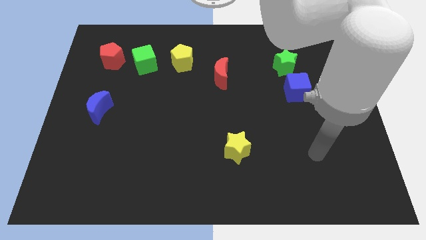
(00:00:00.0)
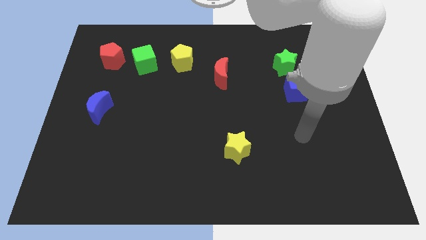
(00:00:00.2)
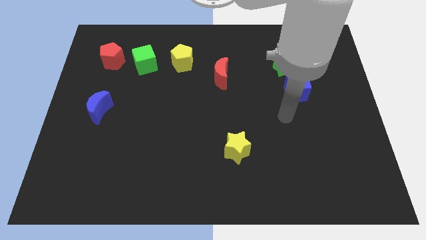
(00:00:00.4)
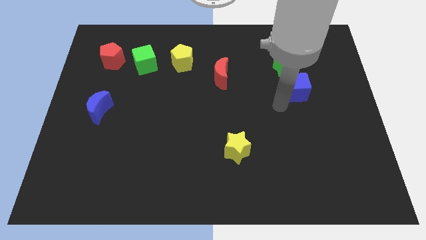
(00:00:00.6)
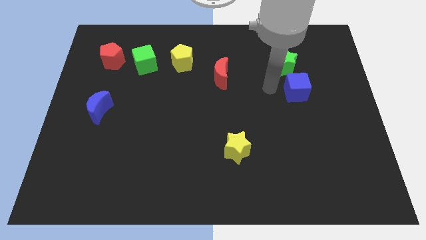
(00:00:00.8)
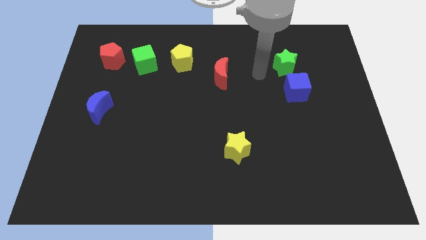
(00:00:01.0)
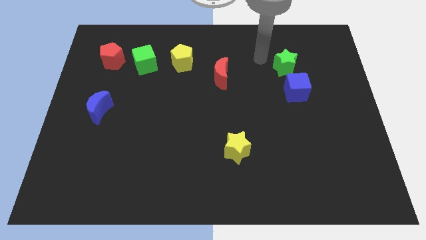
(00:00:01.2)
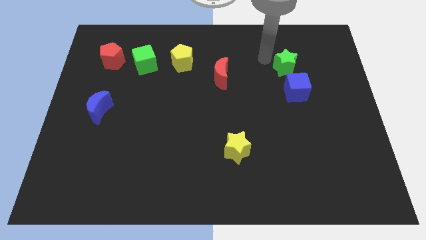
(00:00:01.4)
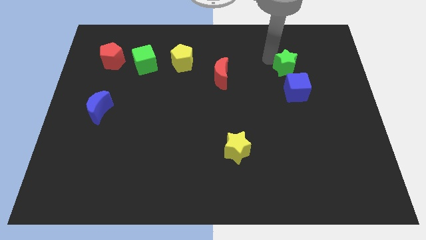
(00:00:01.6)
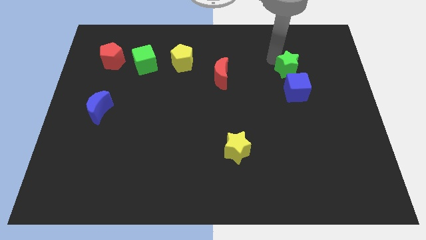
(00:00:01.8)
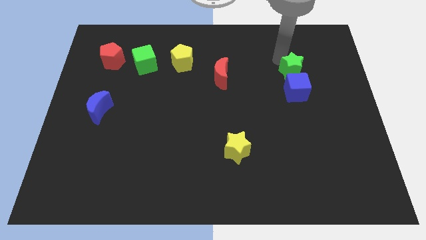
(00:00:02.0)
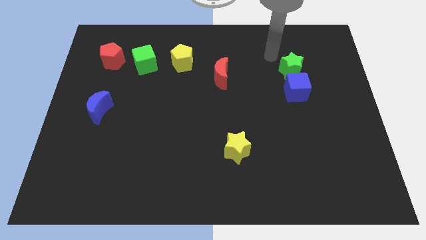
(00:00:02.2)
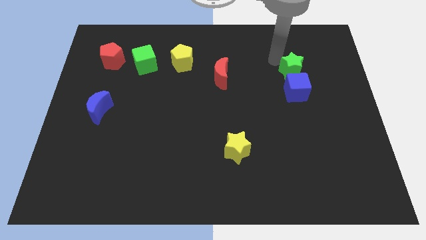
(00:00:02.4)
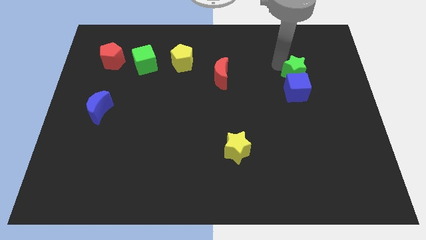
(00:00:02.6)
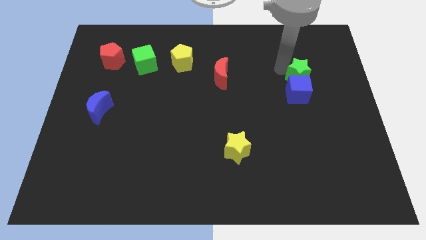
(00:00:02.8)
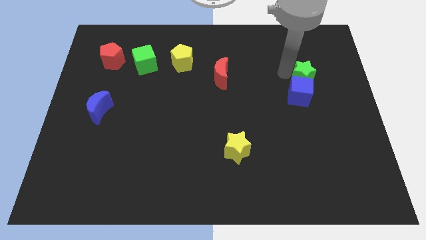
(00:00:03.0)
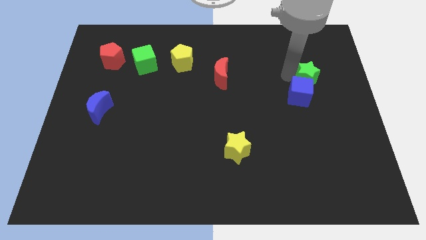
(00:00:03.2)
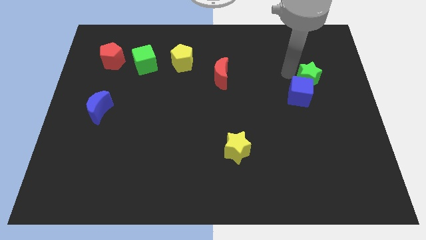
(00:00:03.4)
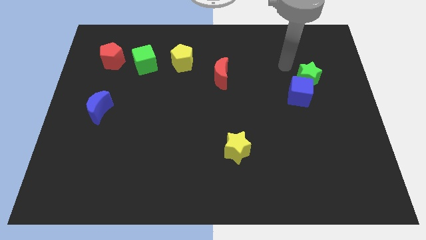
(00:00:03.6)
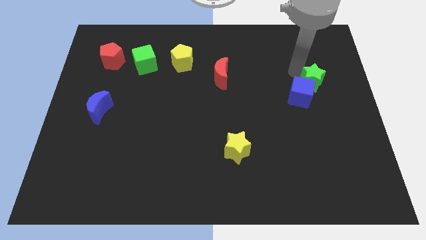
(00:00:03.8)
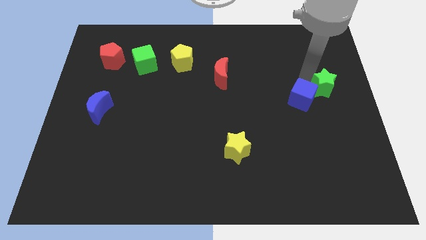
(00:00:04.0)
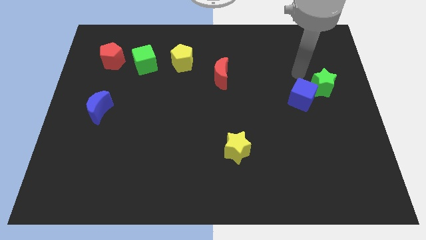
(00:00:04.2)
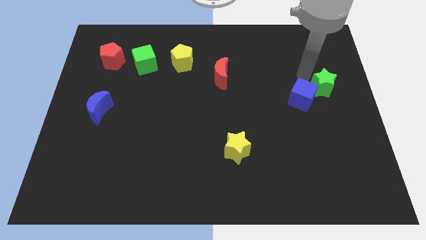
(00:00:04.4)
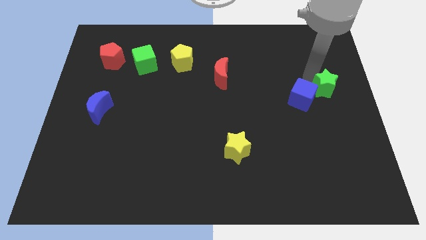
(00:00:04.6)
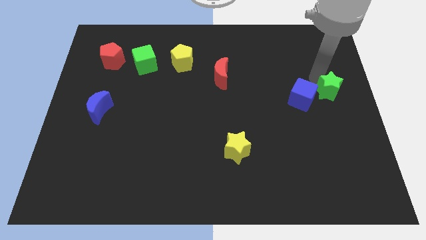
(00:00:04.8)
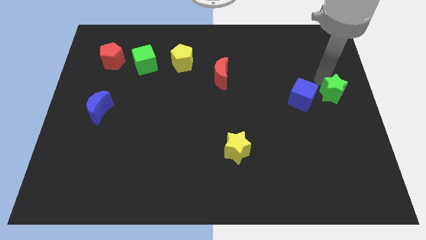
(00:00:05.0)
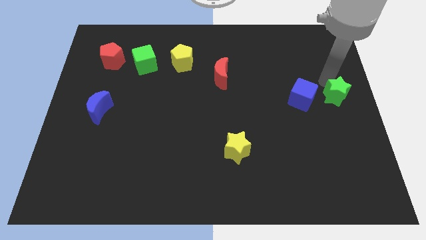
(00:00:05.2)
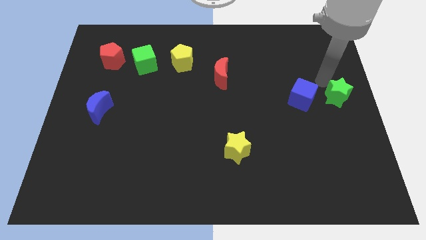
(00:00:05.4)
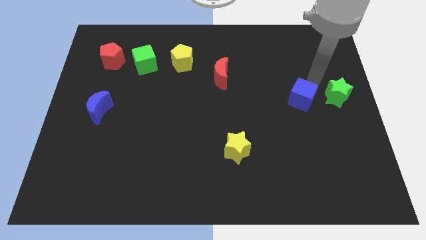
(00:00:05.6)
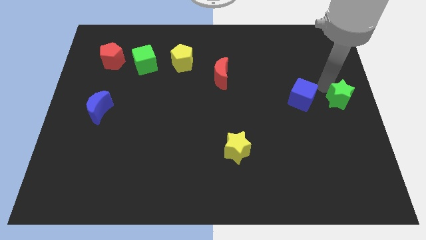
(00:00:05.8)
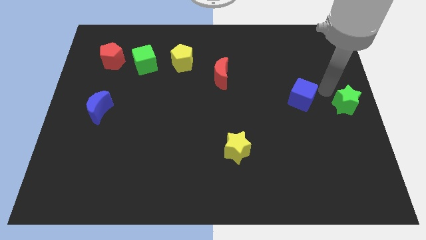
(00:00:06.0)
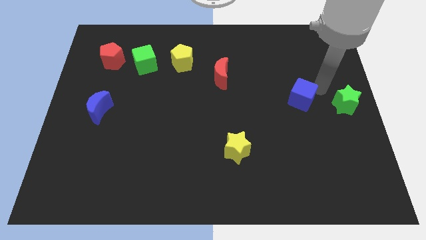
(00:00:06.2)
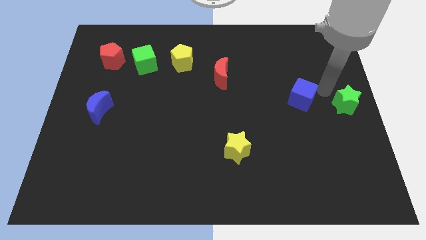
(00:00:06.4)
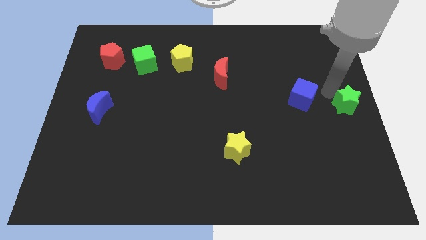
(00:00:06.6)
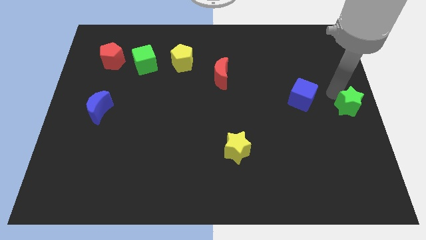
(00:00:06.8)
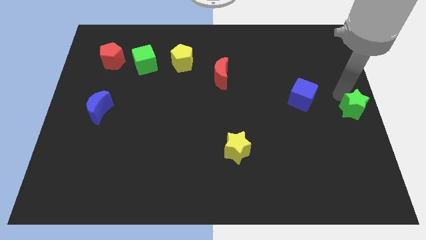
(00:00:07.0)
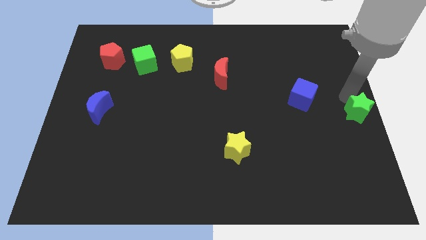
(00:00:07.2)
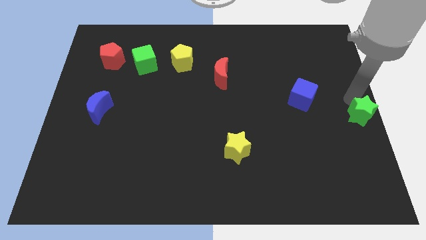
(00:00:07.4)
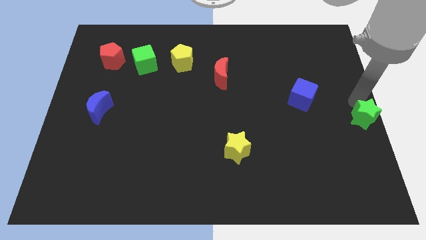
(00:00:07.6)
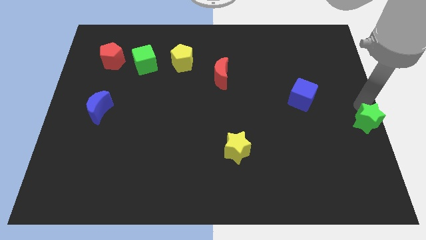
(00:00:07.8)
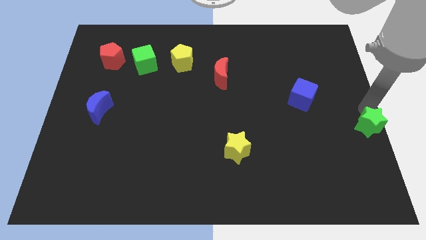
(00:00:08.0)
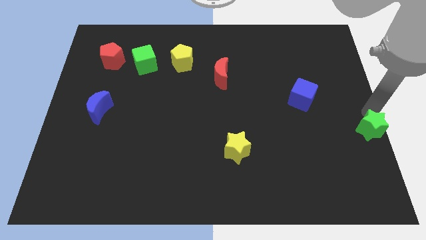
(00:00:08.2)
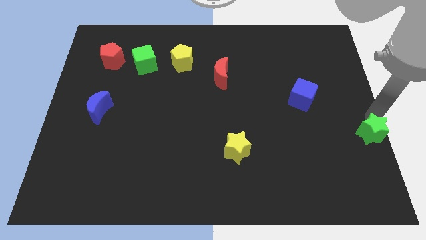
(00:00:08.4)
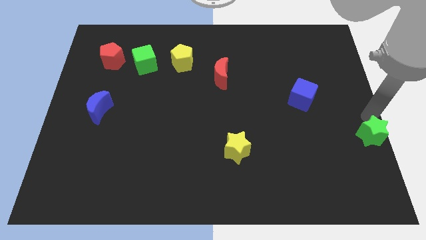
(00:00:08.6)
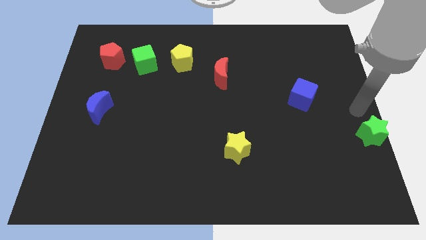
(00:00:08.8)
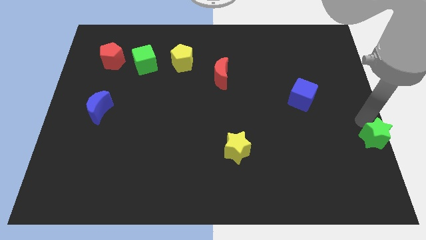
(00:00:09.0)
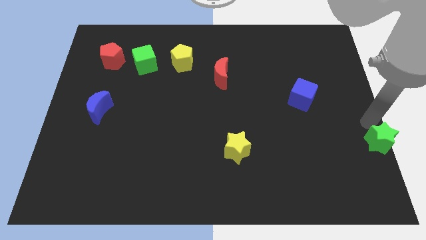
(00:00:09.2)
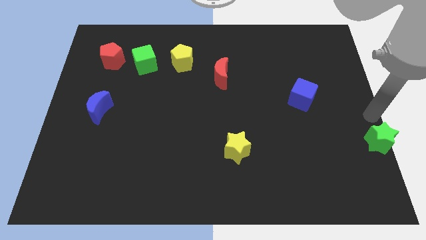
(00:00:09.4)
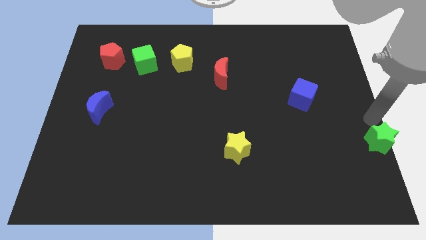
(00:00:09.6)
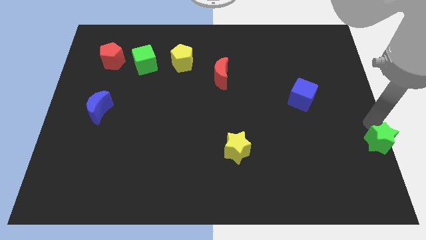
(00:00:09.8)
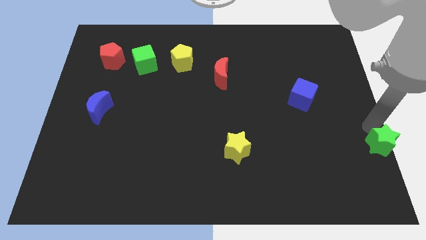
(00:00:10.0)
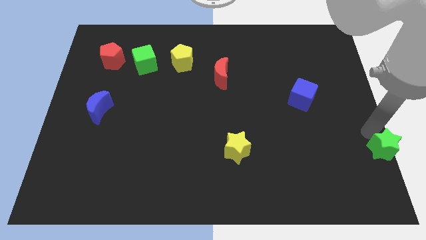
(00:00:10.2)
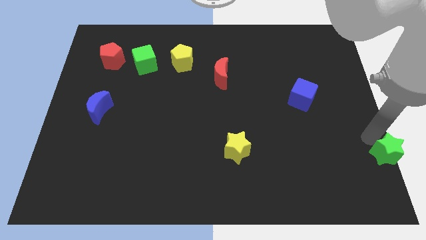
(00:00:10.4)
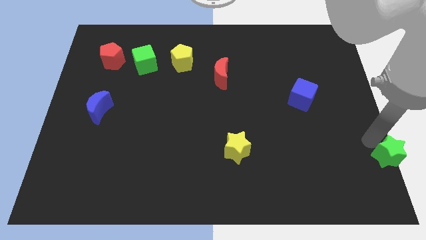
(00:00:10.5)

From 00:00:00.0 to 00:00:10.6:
slide the green star to the bottom right of the board

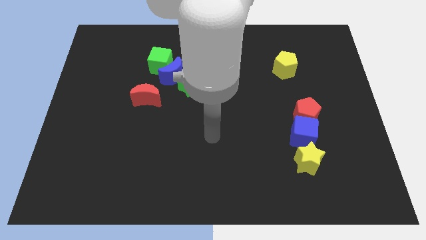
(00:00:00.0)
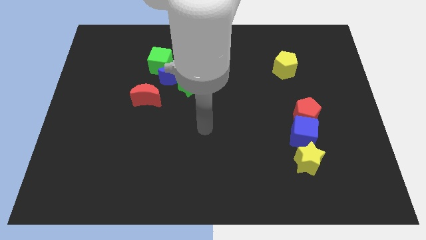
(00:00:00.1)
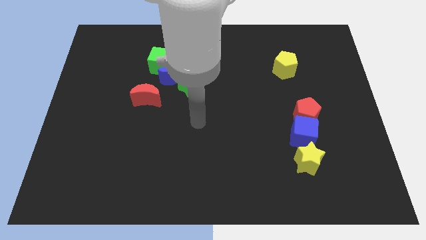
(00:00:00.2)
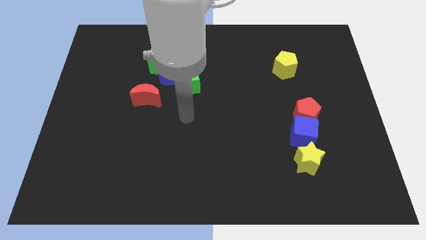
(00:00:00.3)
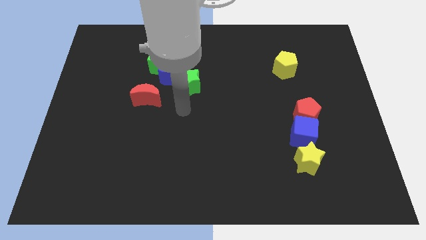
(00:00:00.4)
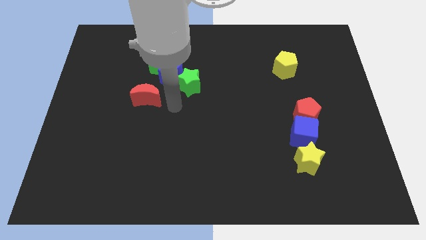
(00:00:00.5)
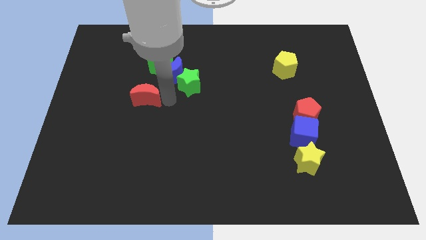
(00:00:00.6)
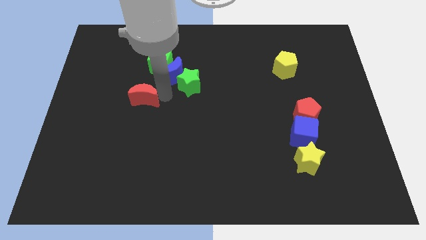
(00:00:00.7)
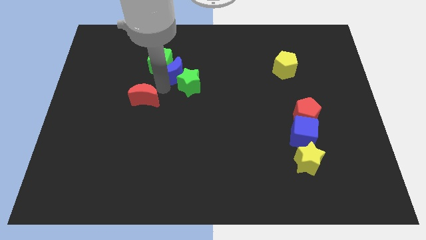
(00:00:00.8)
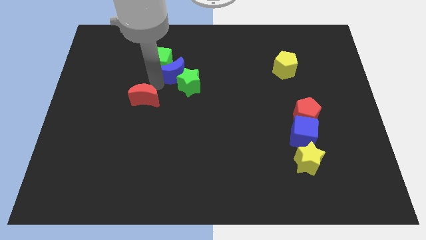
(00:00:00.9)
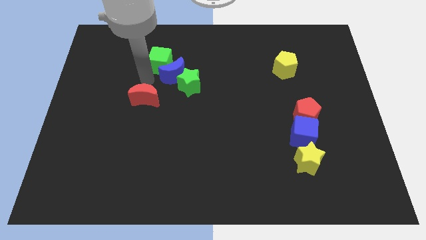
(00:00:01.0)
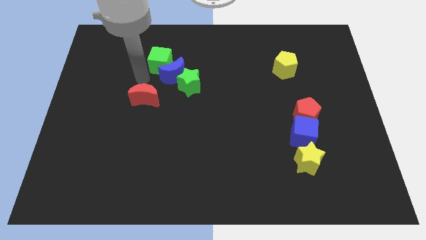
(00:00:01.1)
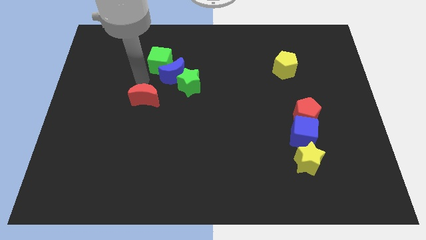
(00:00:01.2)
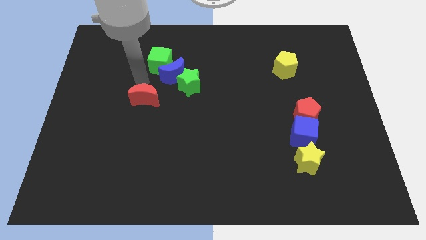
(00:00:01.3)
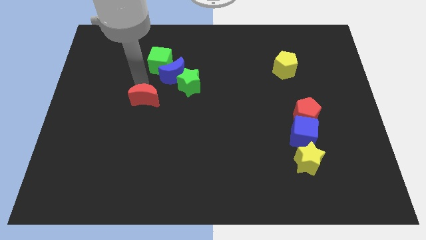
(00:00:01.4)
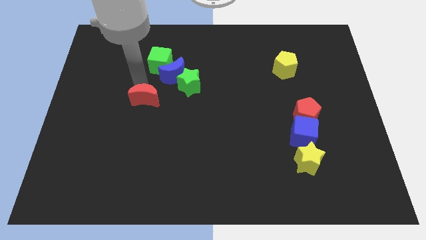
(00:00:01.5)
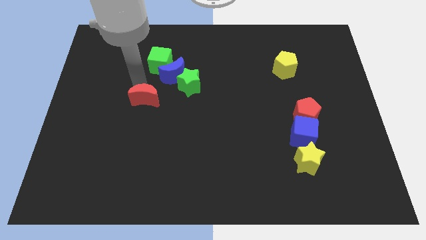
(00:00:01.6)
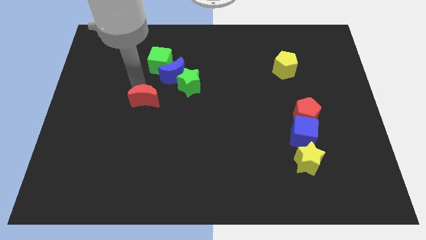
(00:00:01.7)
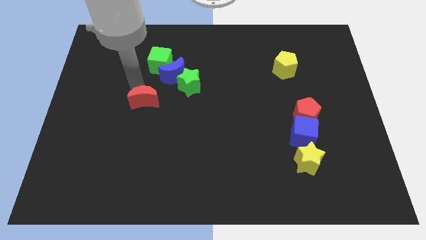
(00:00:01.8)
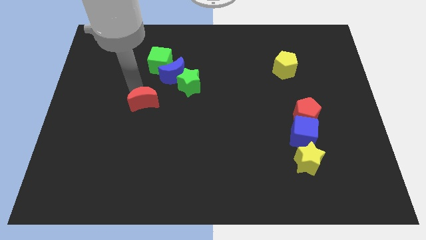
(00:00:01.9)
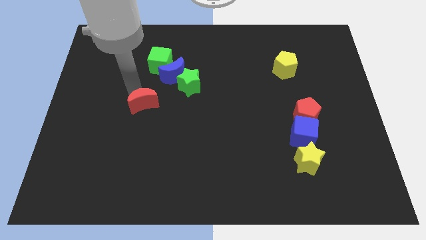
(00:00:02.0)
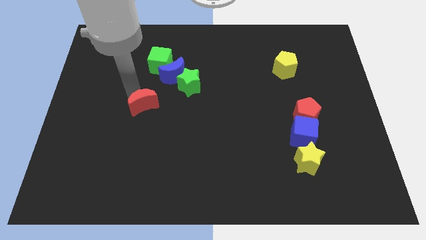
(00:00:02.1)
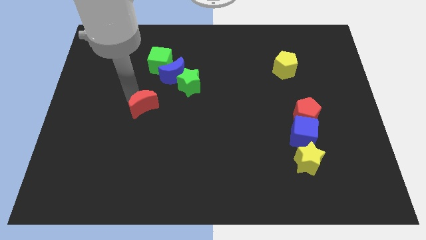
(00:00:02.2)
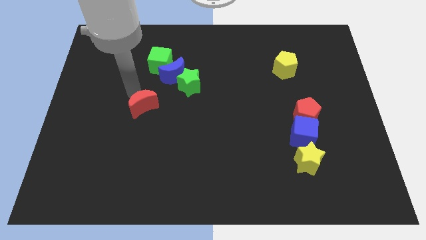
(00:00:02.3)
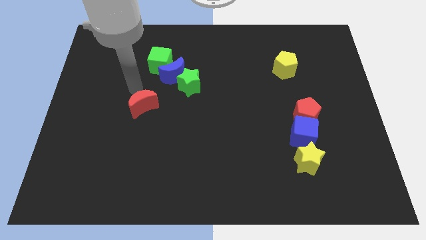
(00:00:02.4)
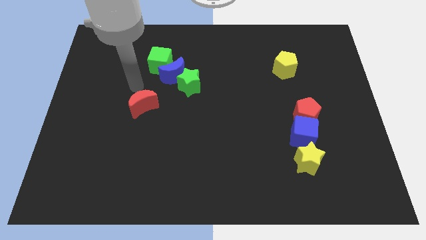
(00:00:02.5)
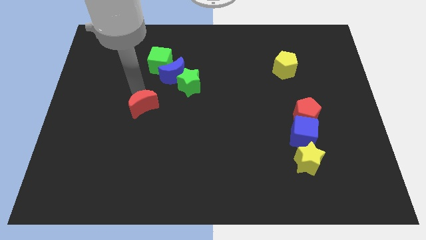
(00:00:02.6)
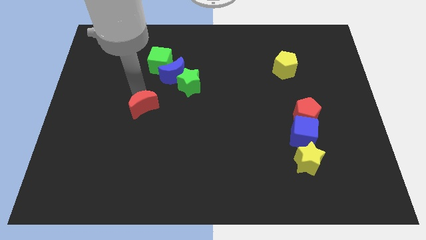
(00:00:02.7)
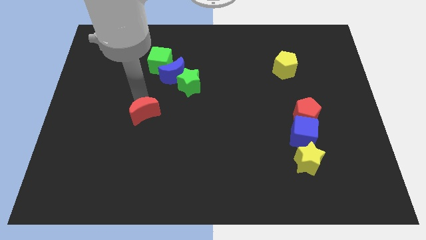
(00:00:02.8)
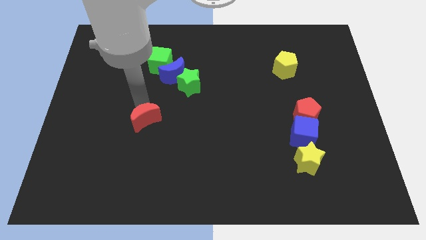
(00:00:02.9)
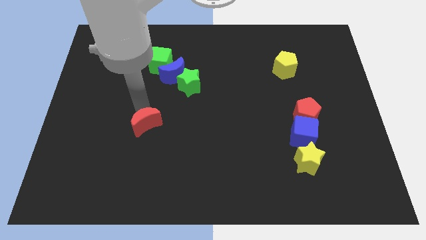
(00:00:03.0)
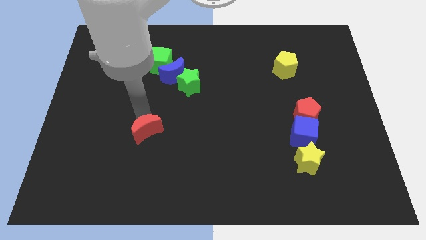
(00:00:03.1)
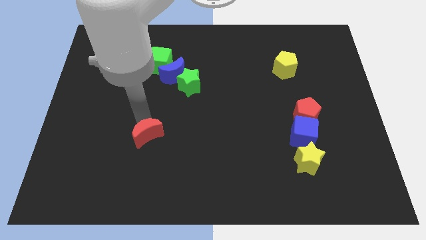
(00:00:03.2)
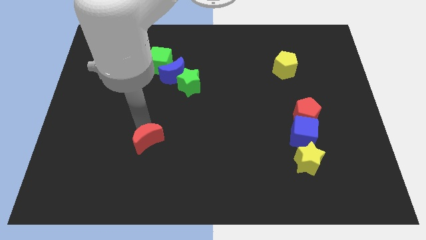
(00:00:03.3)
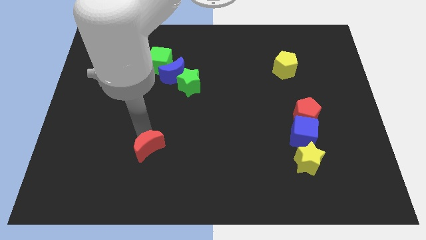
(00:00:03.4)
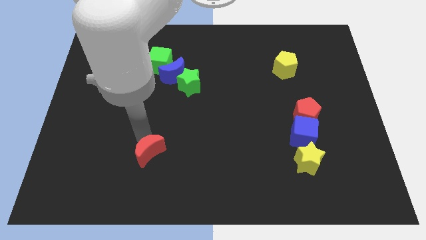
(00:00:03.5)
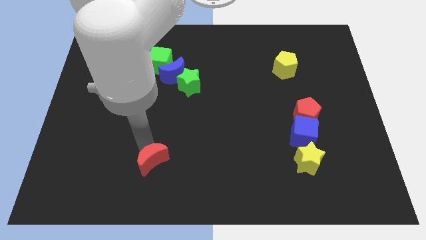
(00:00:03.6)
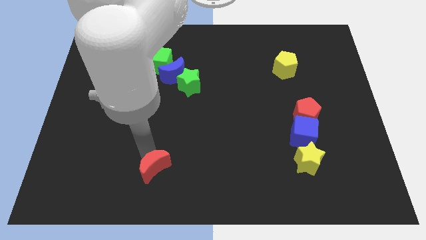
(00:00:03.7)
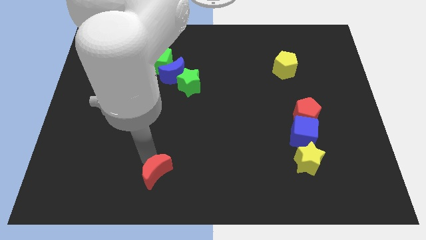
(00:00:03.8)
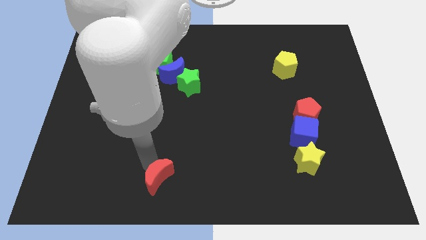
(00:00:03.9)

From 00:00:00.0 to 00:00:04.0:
slide the red moon to the bottom side
